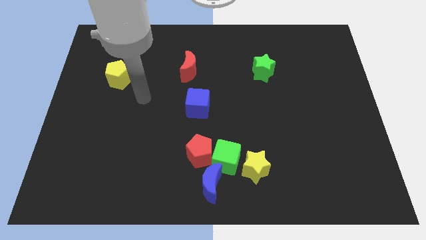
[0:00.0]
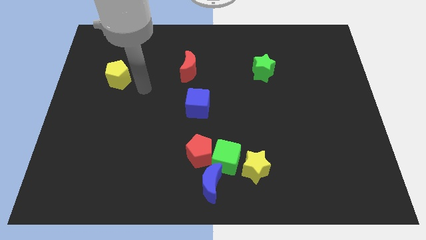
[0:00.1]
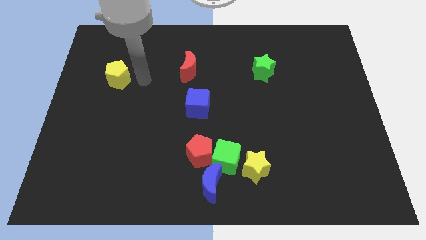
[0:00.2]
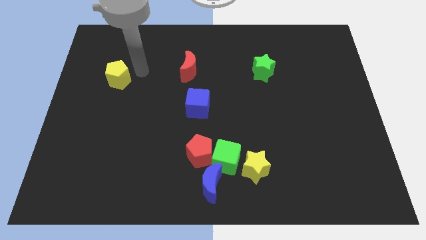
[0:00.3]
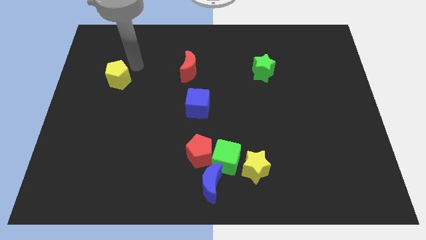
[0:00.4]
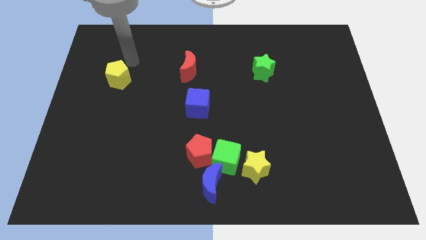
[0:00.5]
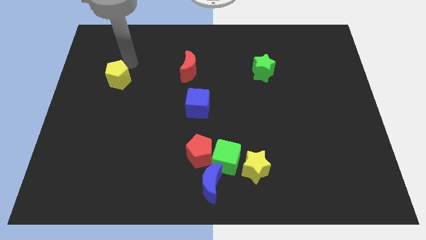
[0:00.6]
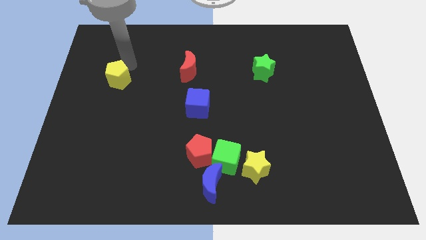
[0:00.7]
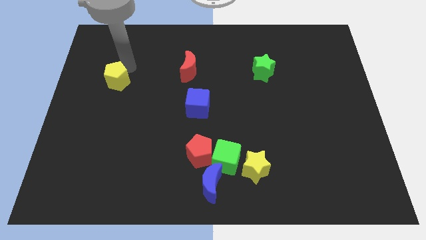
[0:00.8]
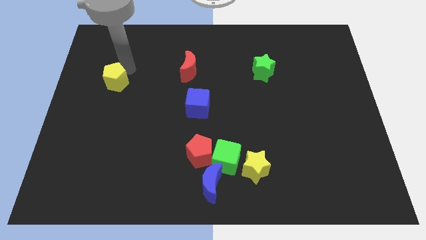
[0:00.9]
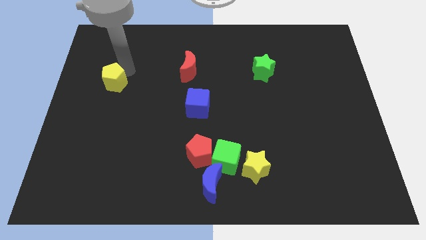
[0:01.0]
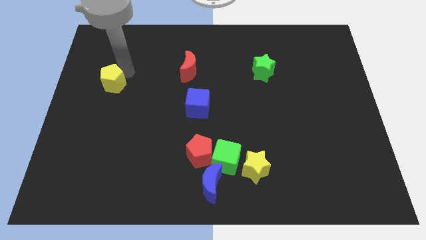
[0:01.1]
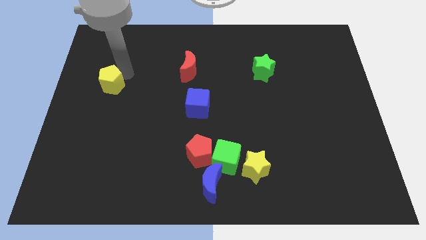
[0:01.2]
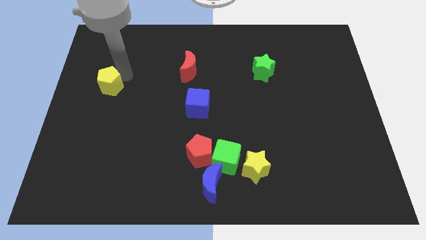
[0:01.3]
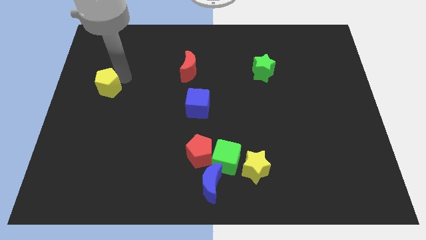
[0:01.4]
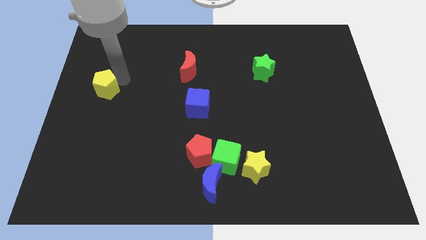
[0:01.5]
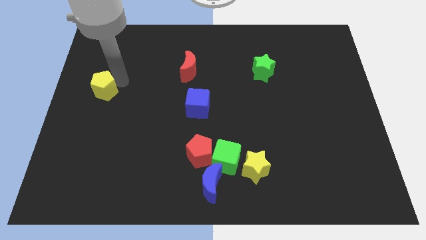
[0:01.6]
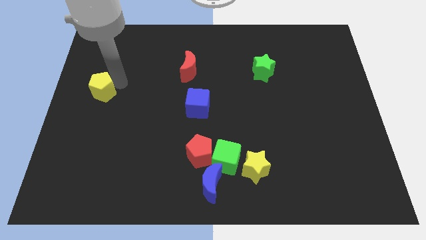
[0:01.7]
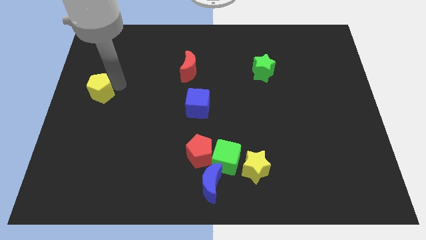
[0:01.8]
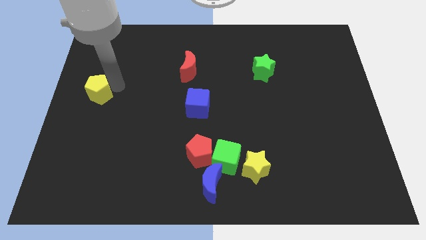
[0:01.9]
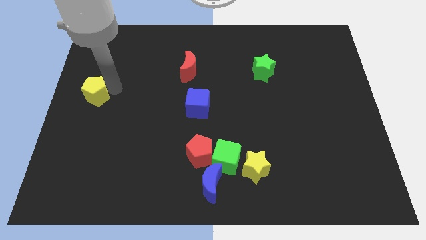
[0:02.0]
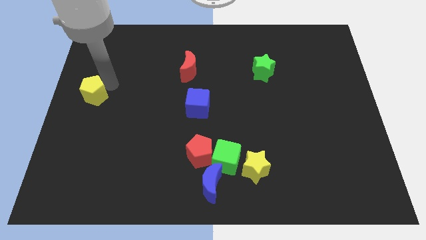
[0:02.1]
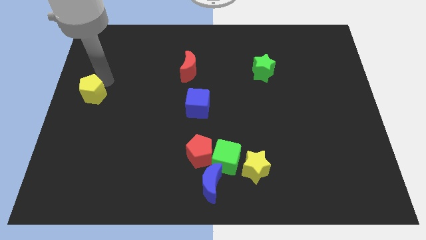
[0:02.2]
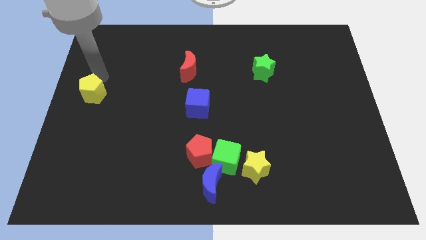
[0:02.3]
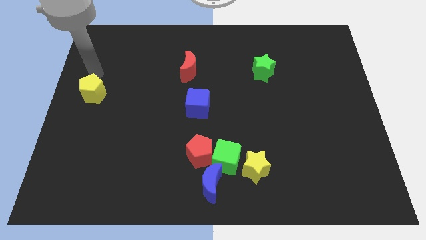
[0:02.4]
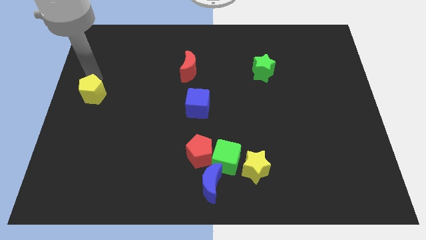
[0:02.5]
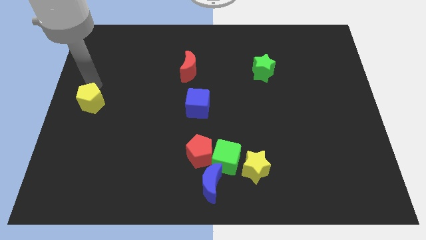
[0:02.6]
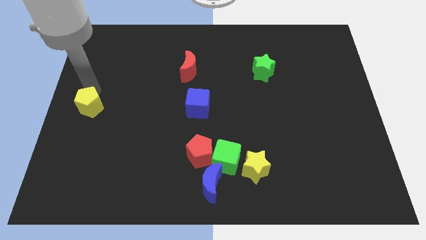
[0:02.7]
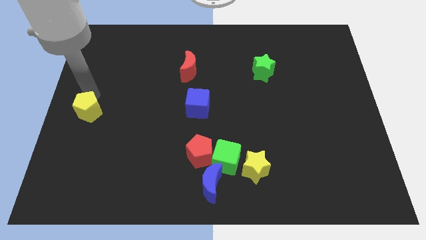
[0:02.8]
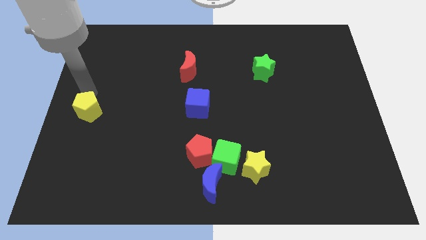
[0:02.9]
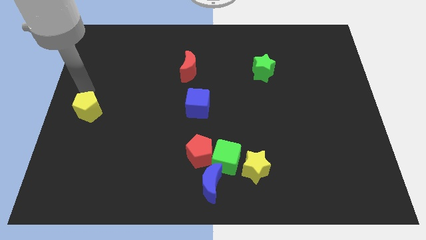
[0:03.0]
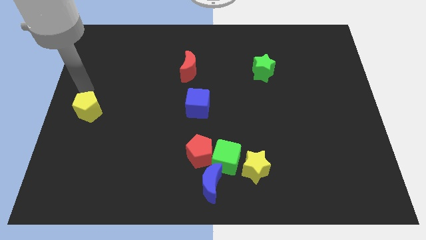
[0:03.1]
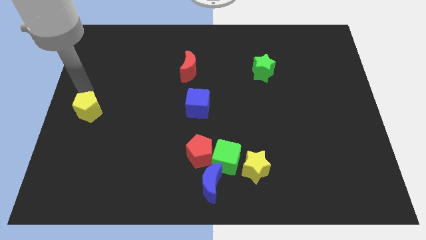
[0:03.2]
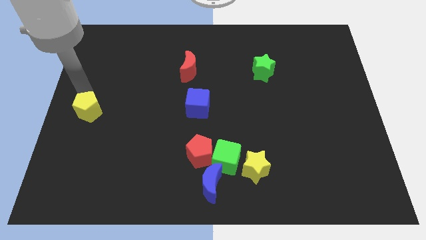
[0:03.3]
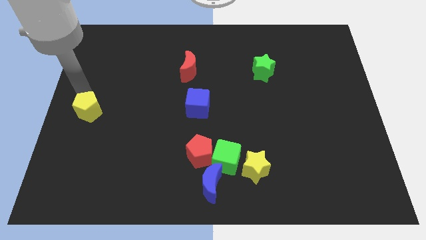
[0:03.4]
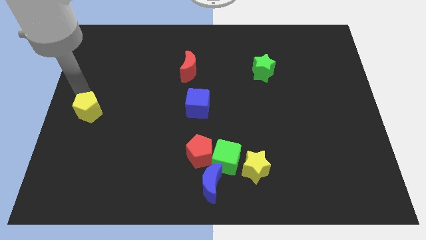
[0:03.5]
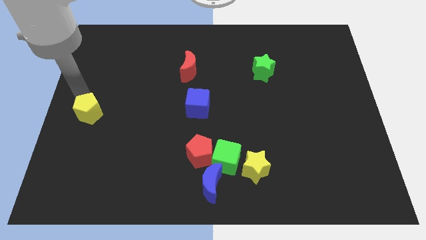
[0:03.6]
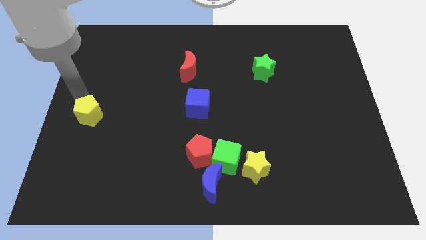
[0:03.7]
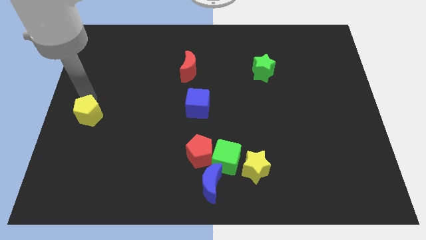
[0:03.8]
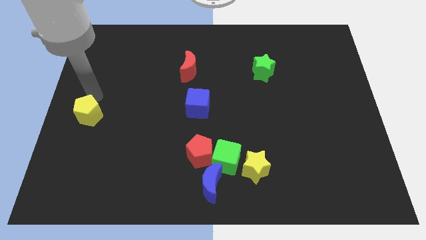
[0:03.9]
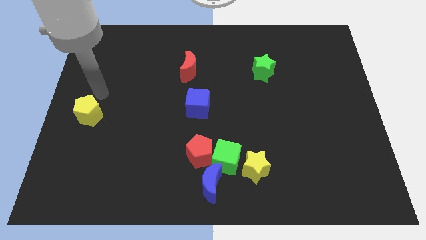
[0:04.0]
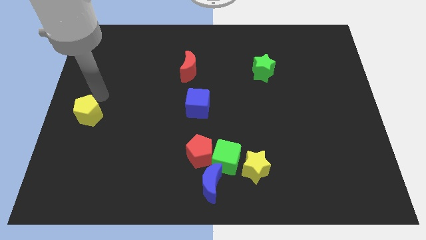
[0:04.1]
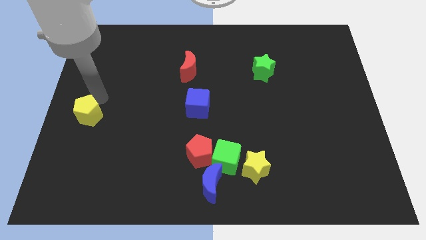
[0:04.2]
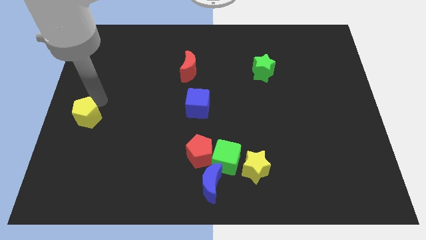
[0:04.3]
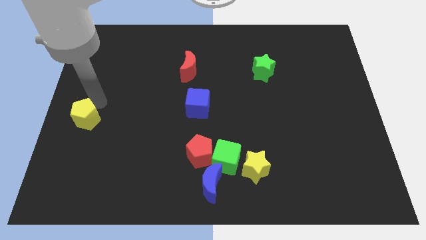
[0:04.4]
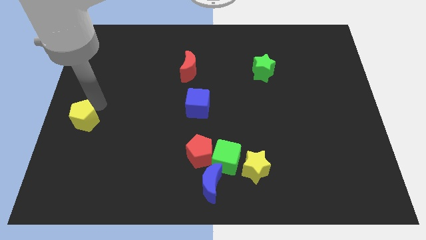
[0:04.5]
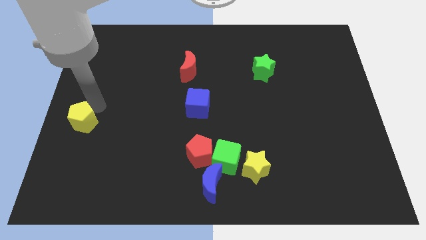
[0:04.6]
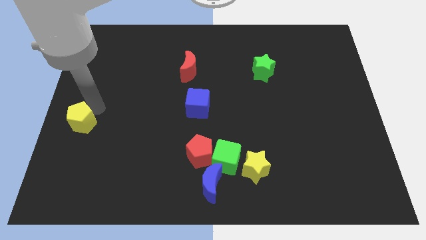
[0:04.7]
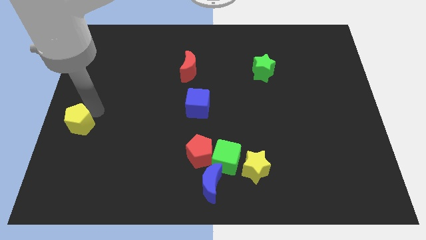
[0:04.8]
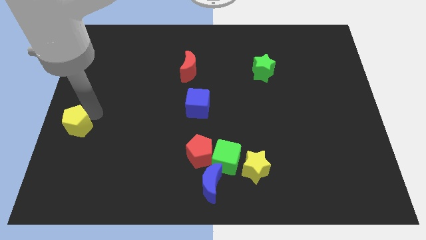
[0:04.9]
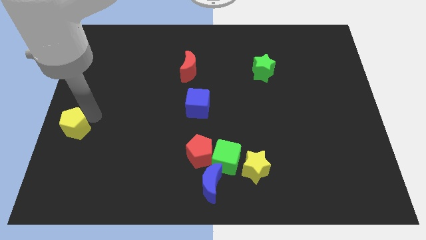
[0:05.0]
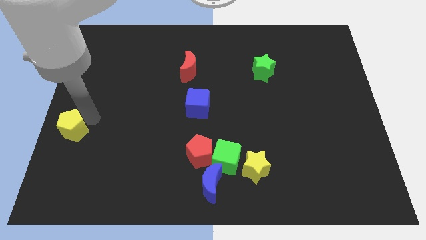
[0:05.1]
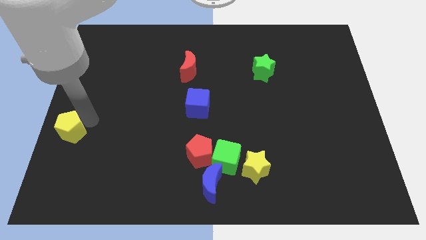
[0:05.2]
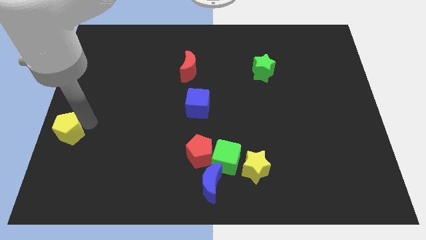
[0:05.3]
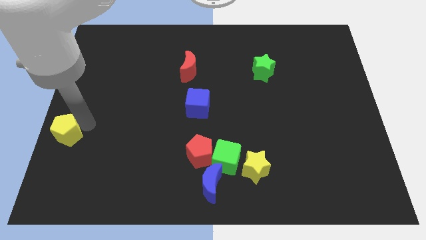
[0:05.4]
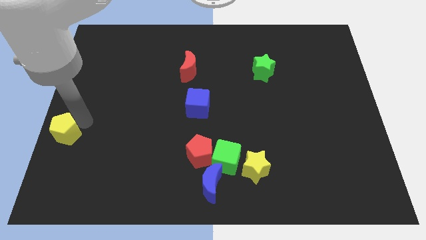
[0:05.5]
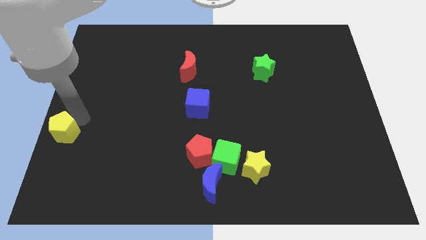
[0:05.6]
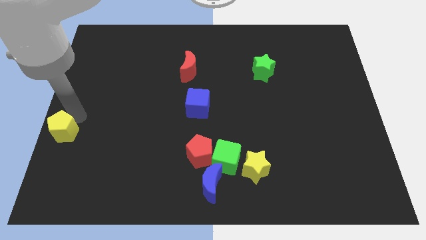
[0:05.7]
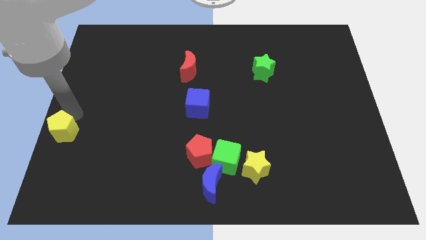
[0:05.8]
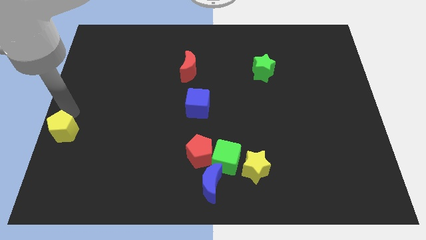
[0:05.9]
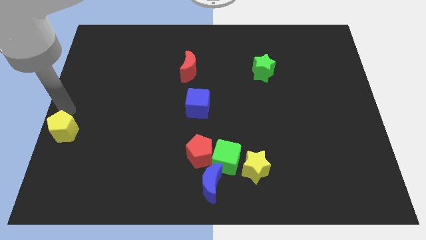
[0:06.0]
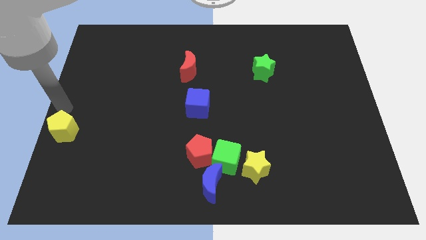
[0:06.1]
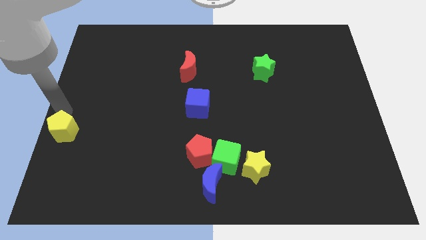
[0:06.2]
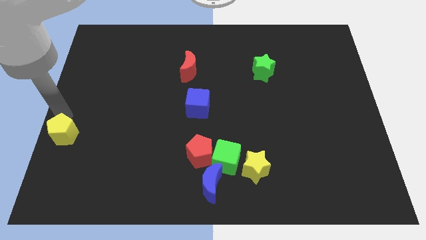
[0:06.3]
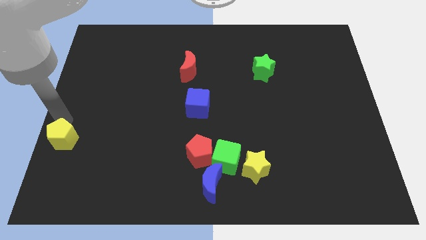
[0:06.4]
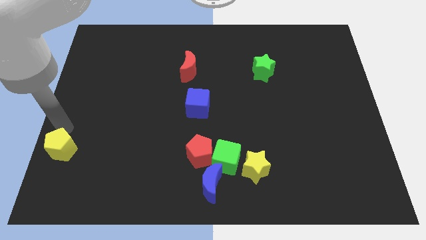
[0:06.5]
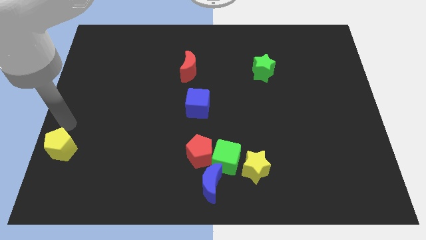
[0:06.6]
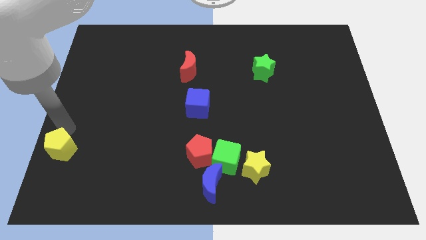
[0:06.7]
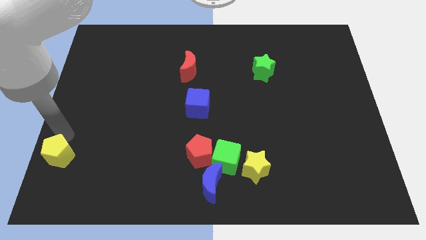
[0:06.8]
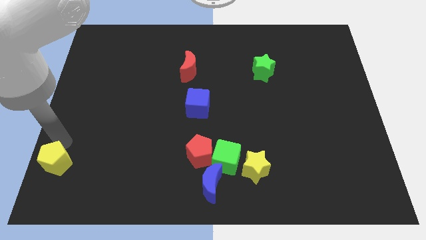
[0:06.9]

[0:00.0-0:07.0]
slide the yellow pentagon to the lower left corner
